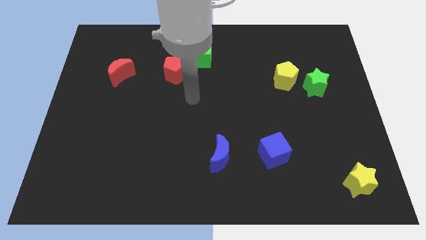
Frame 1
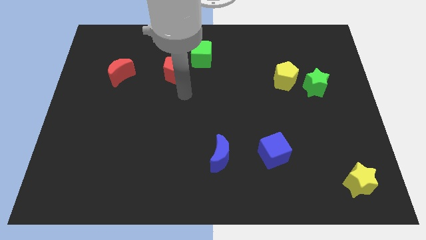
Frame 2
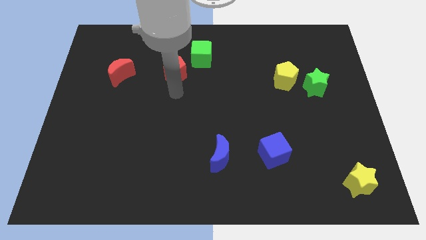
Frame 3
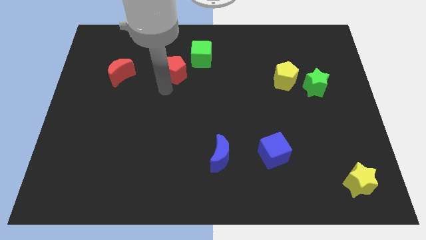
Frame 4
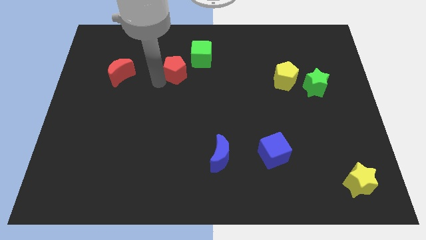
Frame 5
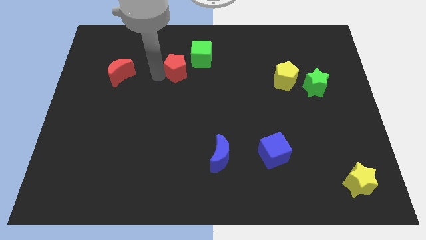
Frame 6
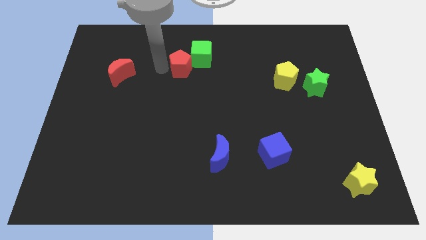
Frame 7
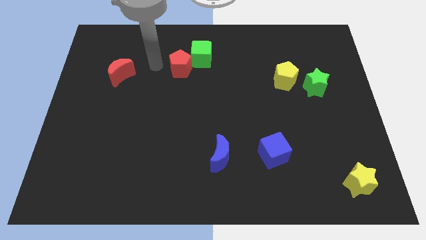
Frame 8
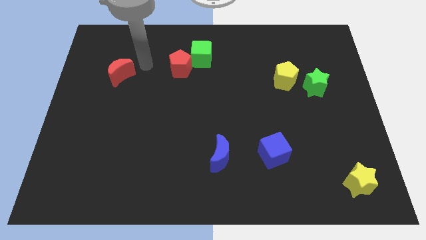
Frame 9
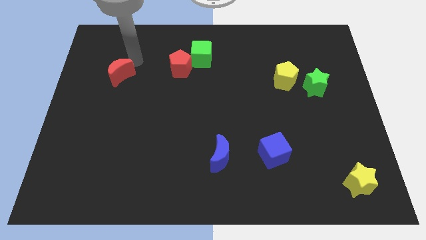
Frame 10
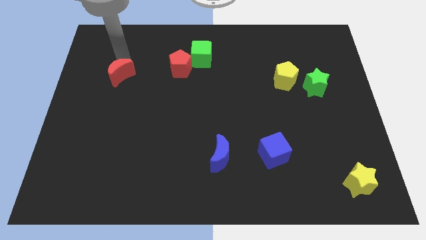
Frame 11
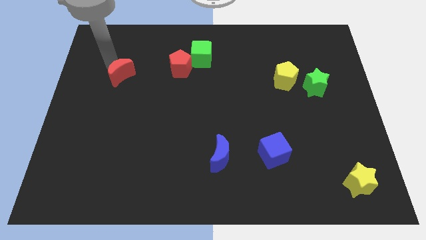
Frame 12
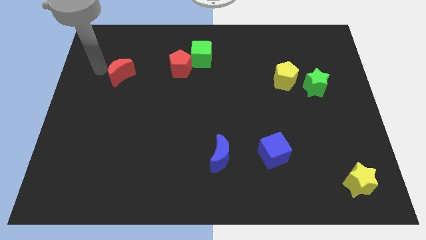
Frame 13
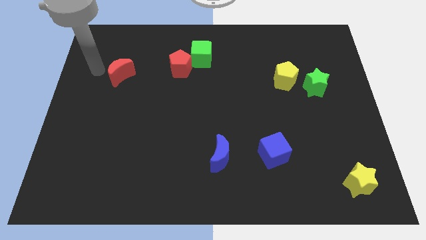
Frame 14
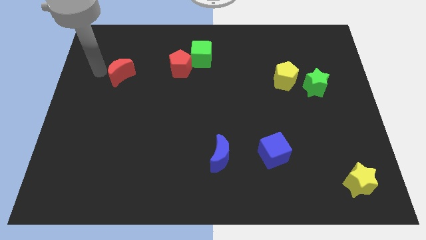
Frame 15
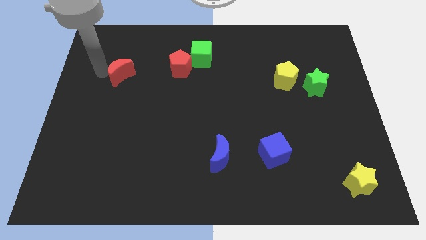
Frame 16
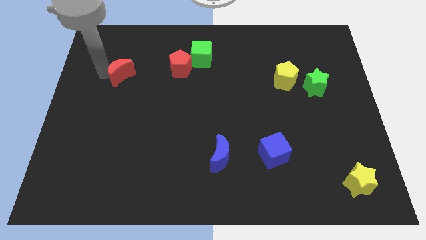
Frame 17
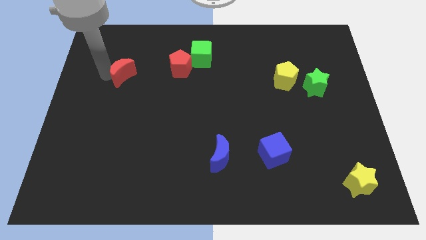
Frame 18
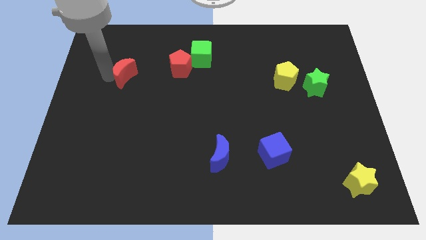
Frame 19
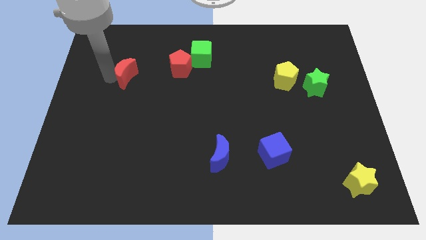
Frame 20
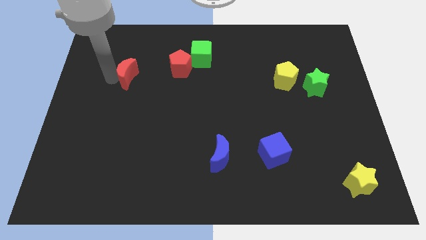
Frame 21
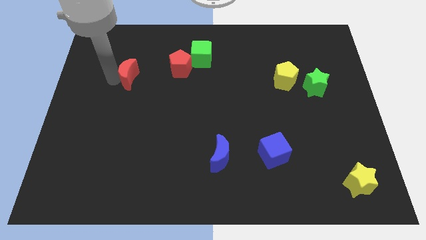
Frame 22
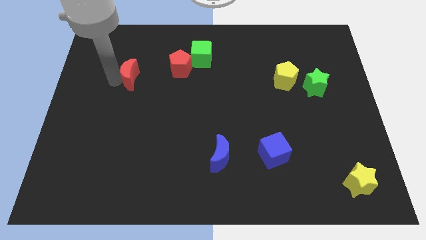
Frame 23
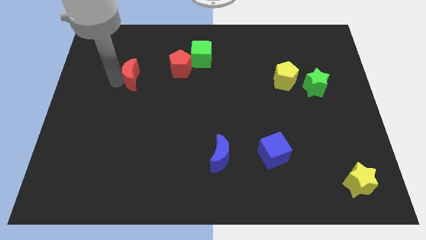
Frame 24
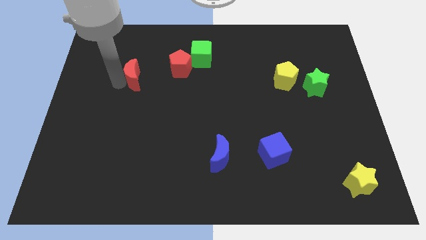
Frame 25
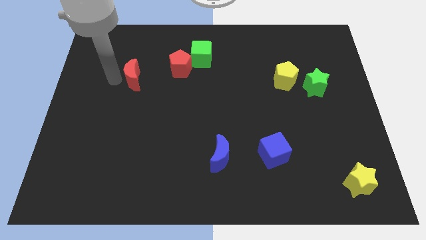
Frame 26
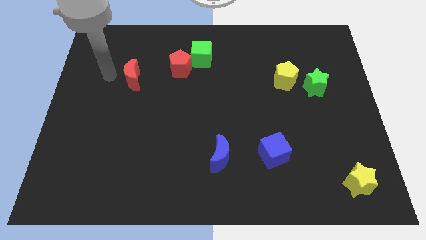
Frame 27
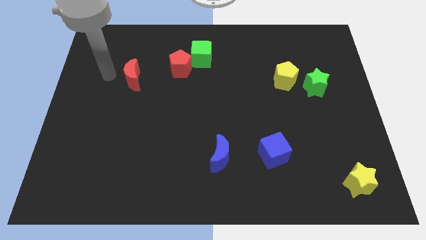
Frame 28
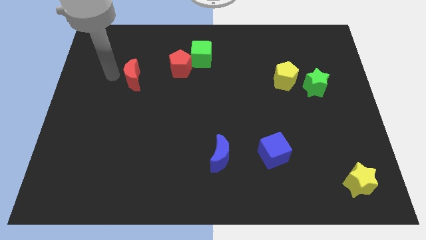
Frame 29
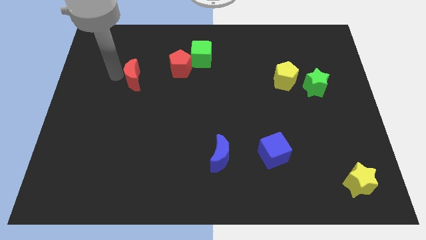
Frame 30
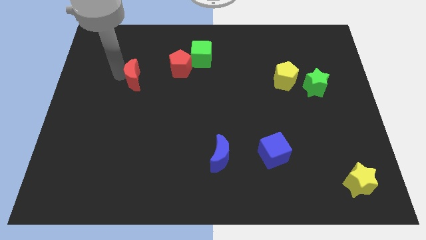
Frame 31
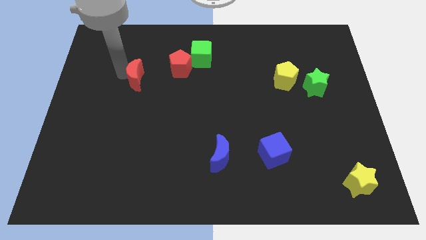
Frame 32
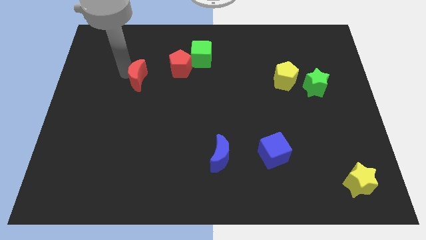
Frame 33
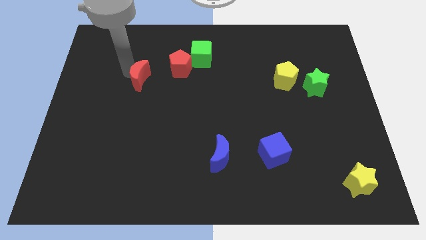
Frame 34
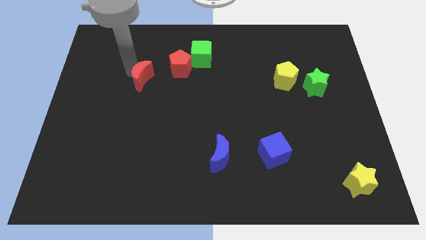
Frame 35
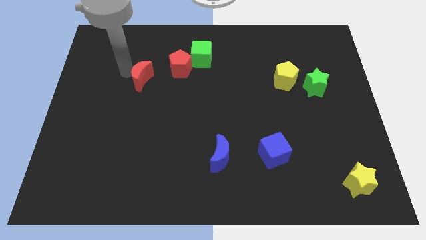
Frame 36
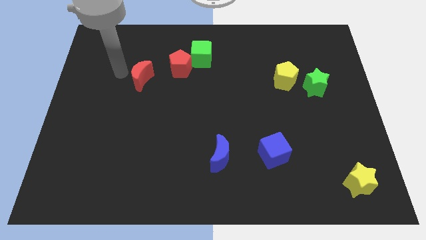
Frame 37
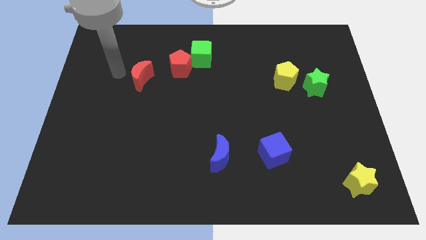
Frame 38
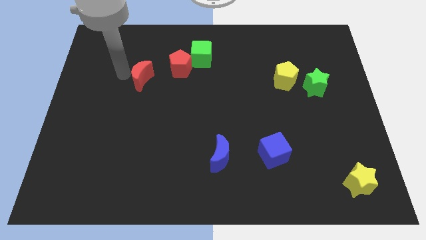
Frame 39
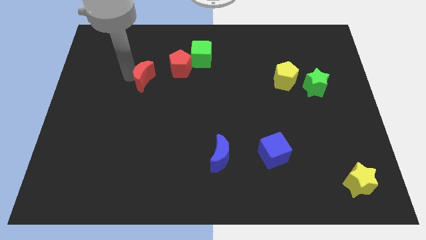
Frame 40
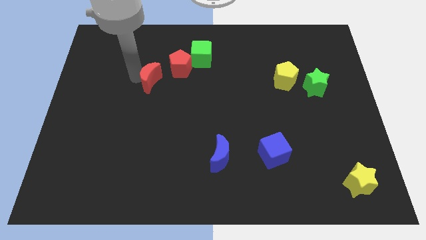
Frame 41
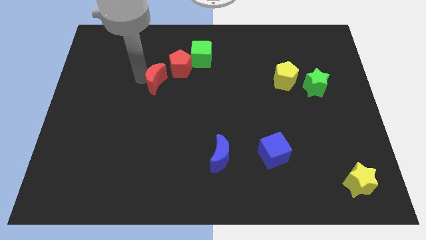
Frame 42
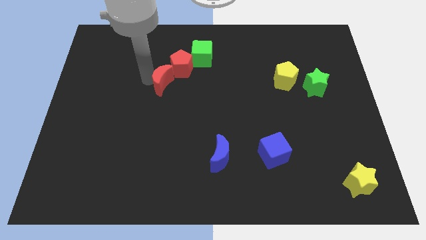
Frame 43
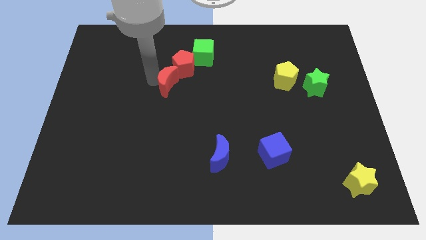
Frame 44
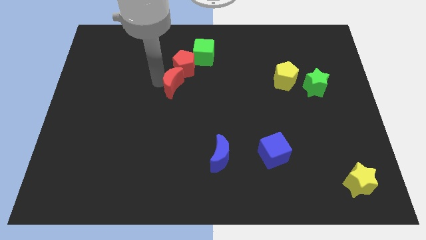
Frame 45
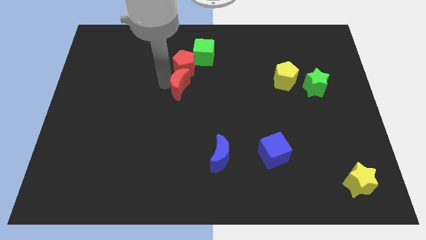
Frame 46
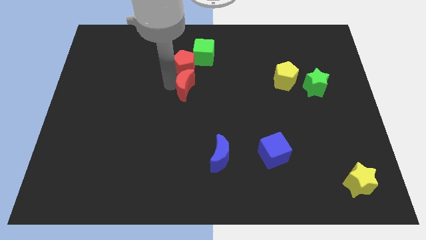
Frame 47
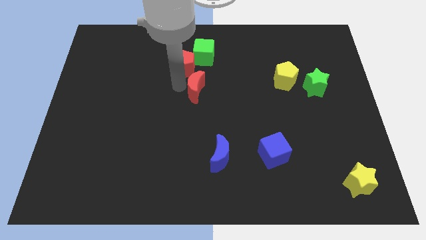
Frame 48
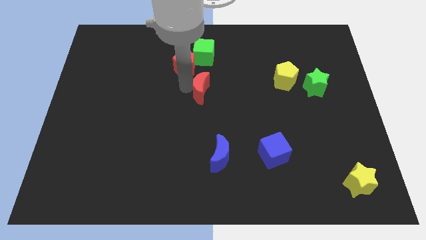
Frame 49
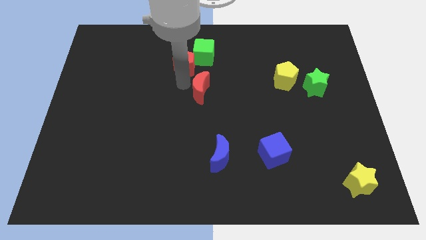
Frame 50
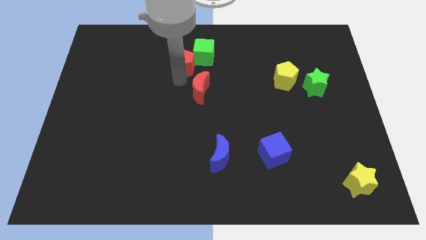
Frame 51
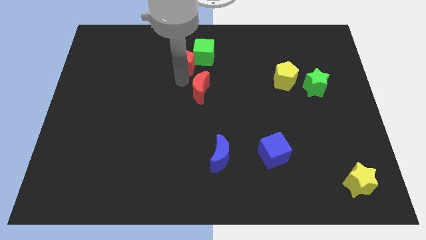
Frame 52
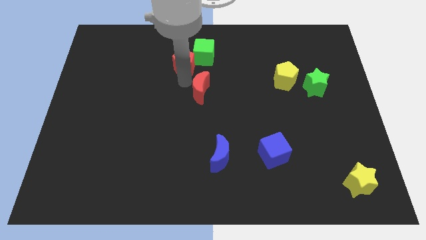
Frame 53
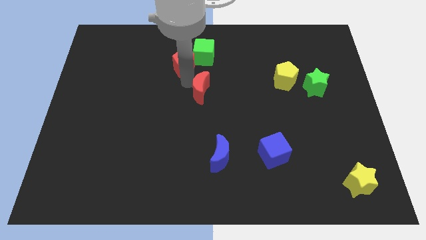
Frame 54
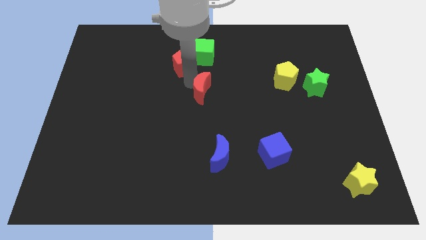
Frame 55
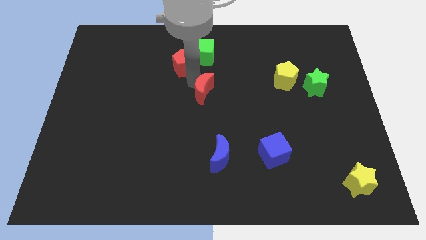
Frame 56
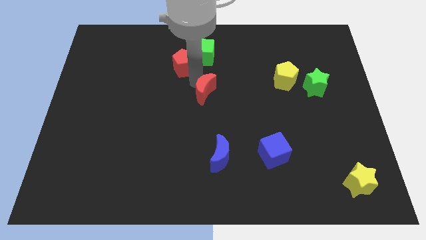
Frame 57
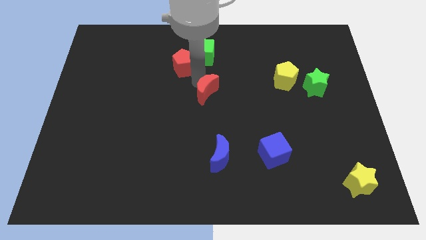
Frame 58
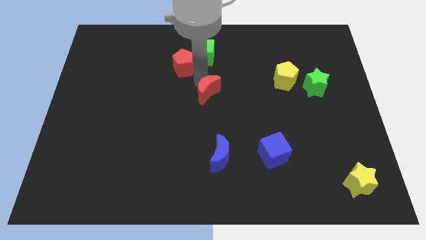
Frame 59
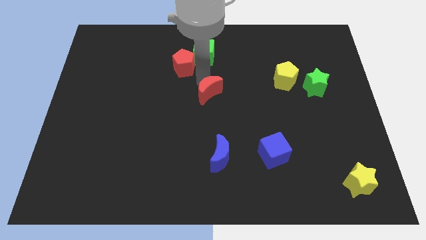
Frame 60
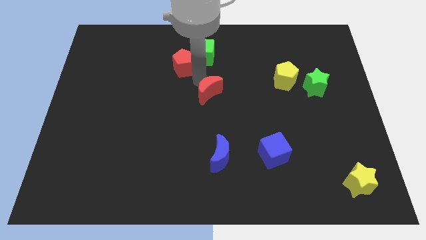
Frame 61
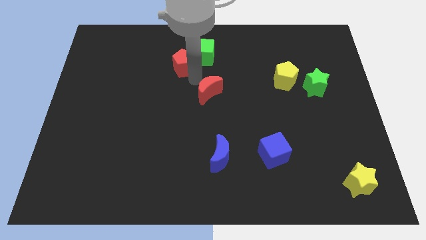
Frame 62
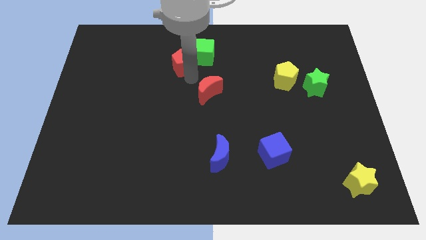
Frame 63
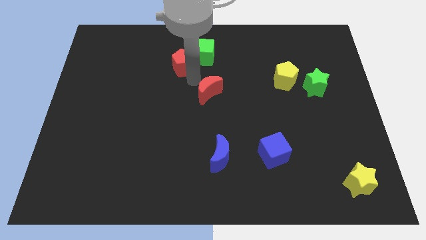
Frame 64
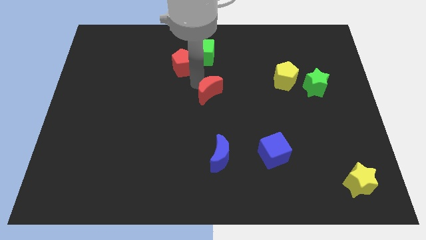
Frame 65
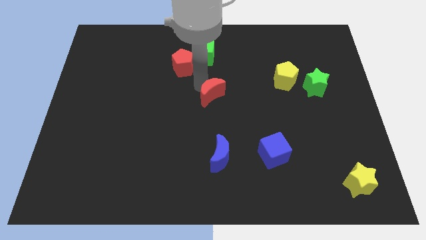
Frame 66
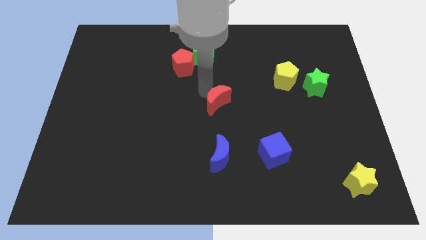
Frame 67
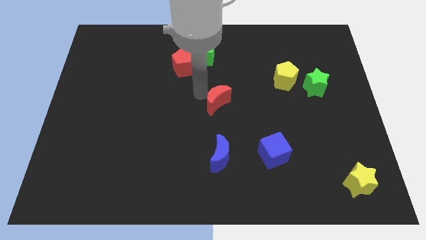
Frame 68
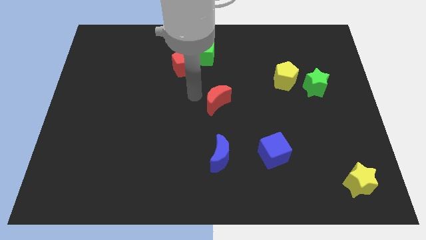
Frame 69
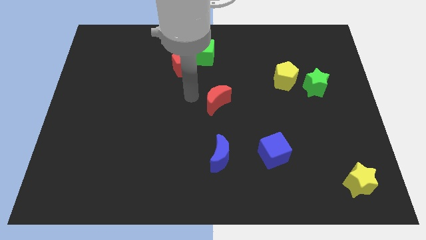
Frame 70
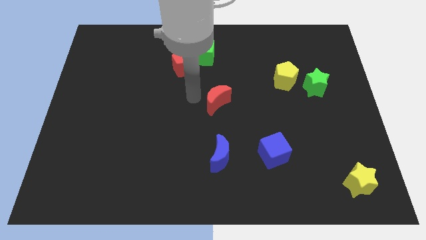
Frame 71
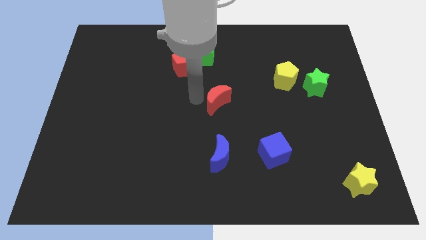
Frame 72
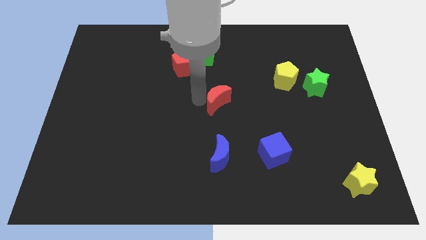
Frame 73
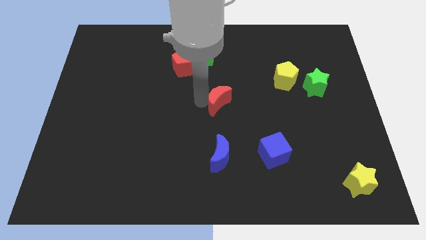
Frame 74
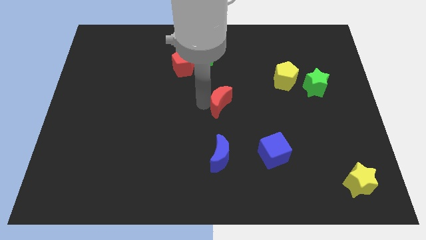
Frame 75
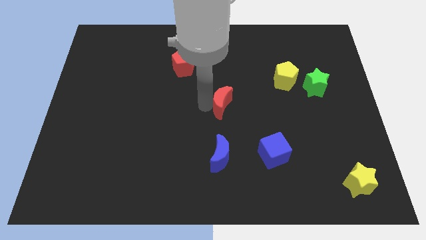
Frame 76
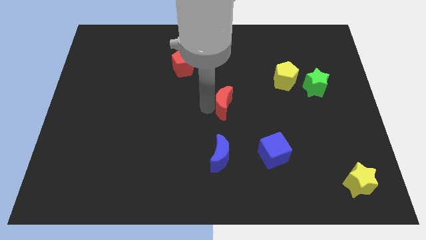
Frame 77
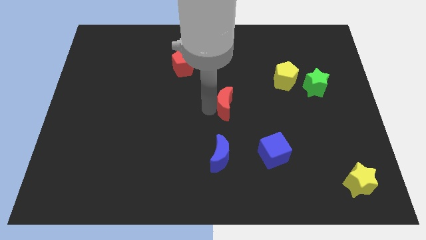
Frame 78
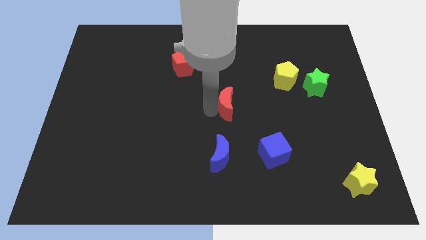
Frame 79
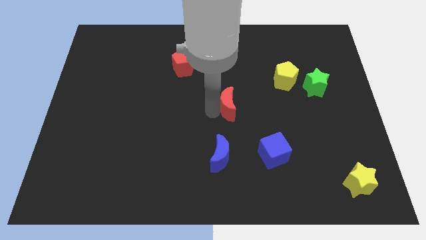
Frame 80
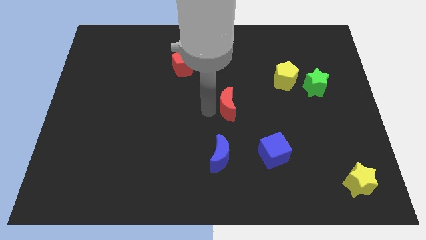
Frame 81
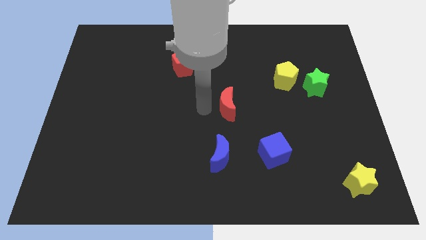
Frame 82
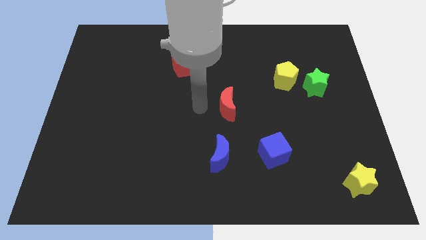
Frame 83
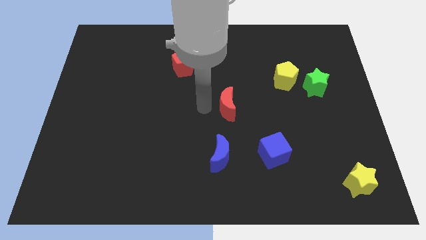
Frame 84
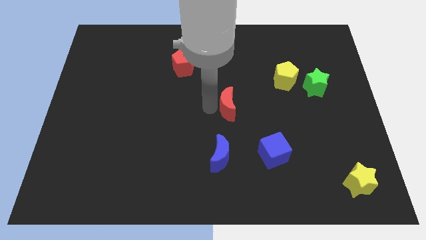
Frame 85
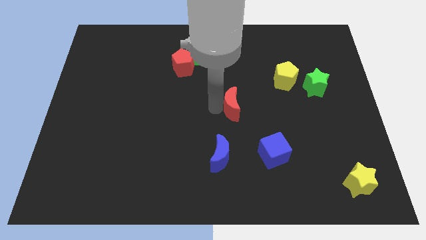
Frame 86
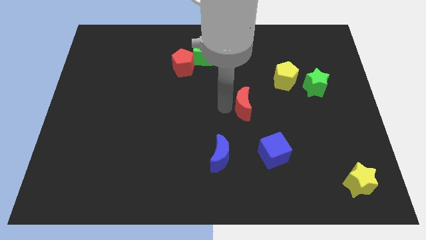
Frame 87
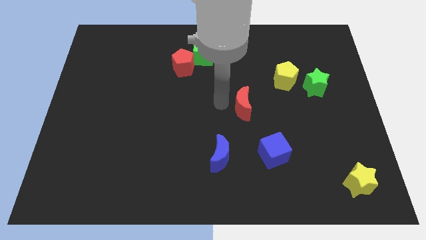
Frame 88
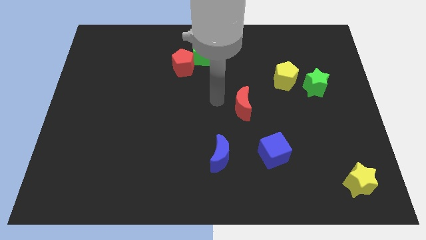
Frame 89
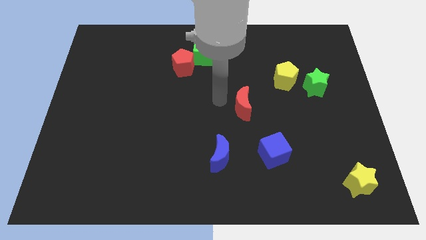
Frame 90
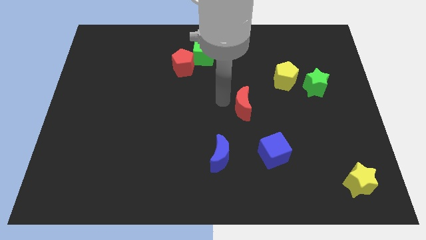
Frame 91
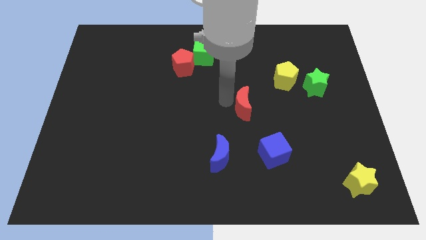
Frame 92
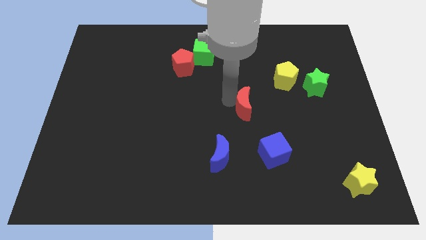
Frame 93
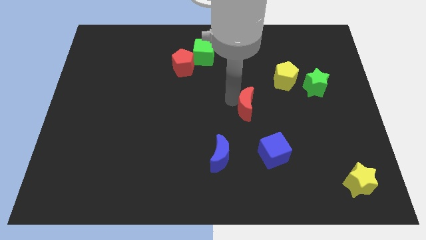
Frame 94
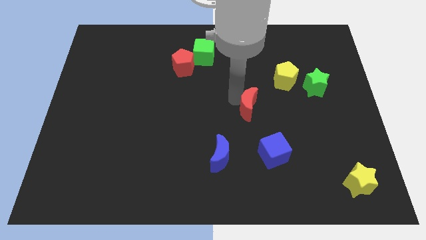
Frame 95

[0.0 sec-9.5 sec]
put the red moon to the top of the blue cube
